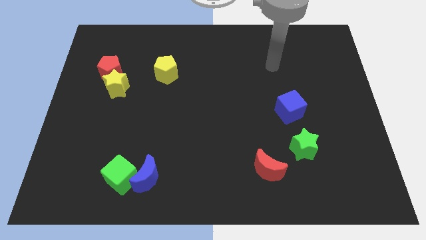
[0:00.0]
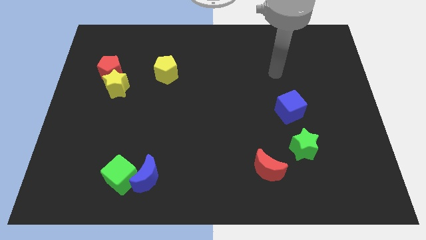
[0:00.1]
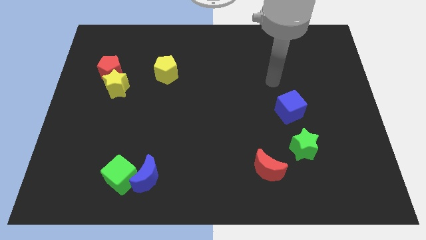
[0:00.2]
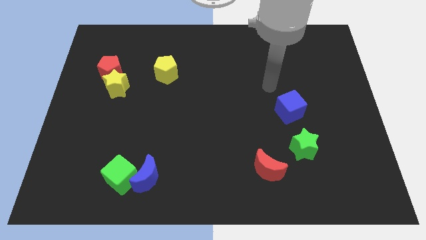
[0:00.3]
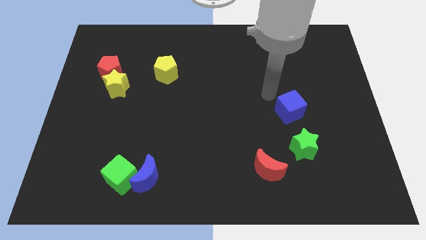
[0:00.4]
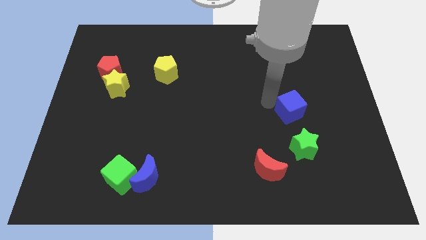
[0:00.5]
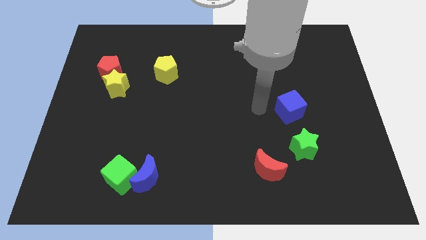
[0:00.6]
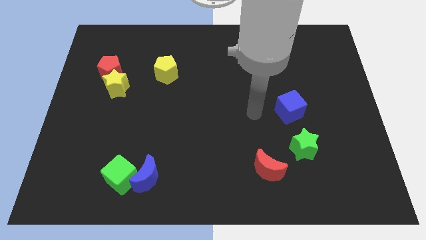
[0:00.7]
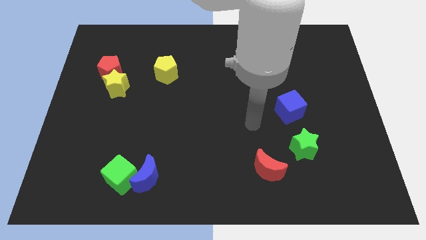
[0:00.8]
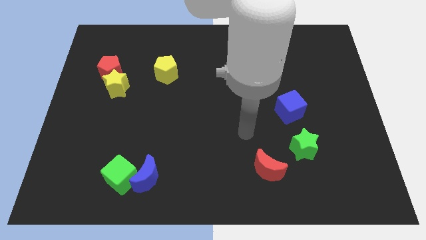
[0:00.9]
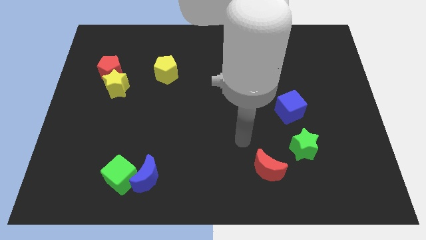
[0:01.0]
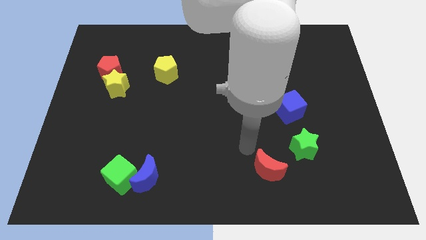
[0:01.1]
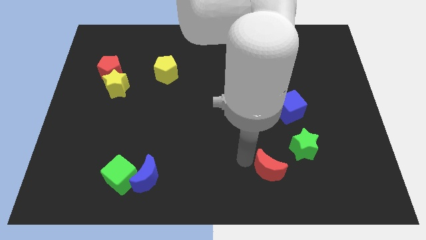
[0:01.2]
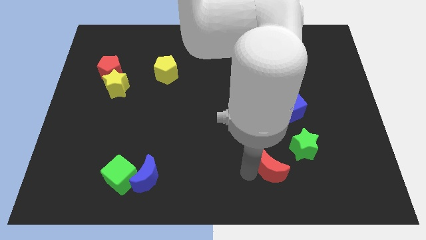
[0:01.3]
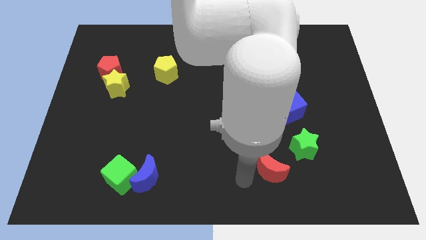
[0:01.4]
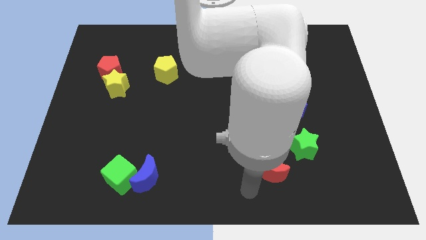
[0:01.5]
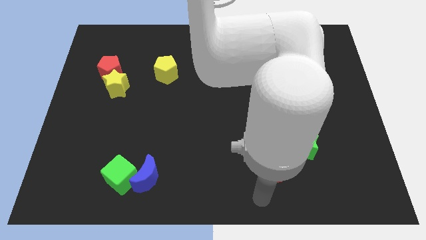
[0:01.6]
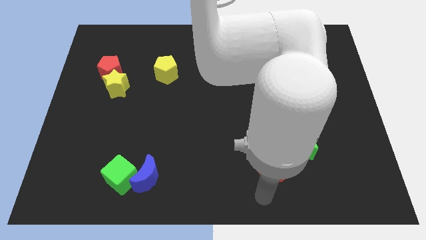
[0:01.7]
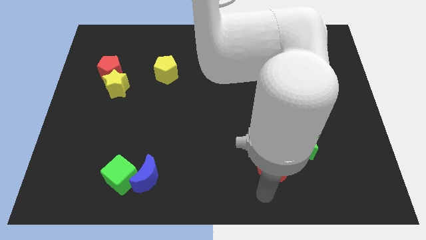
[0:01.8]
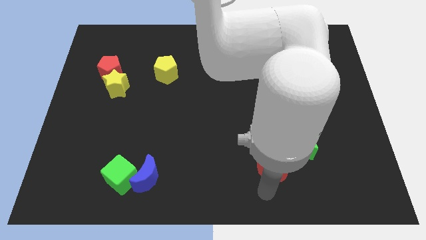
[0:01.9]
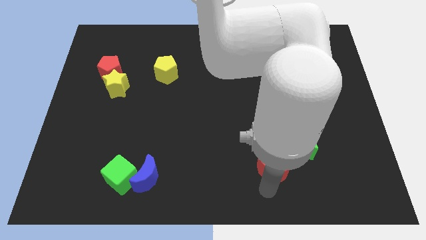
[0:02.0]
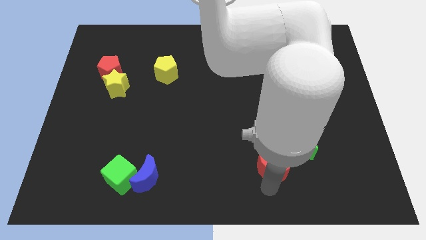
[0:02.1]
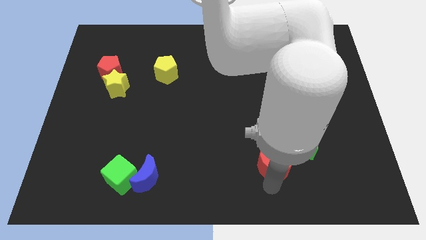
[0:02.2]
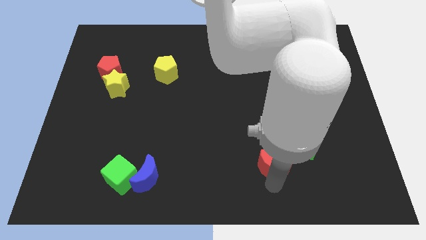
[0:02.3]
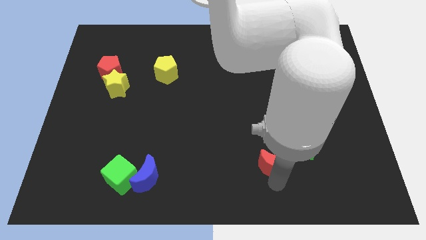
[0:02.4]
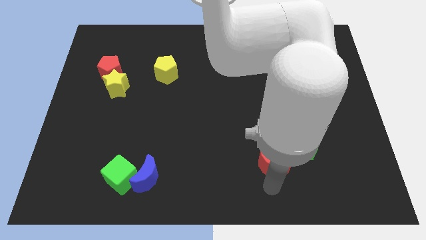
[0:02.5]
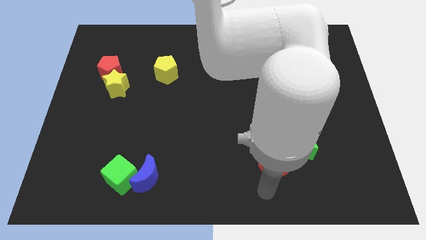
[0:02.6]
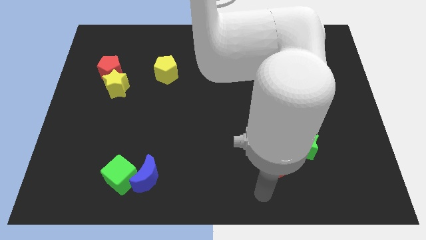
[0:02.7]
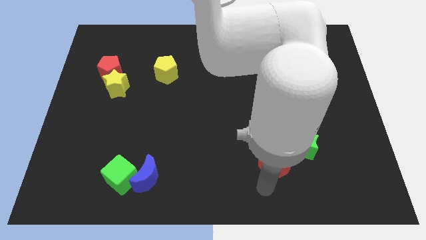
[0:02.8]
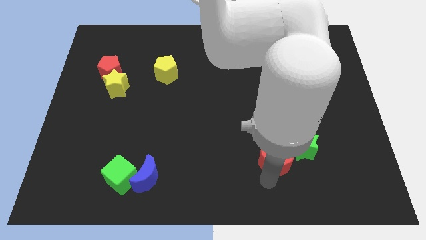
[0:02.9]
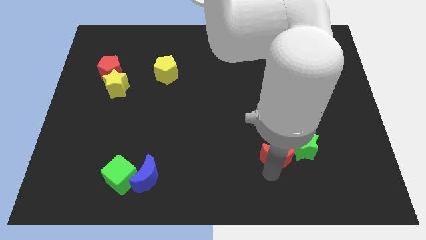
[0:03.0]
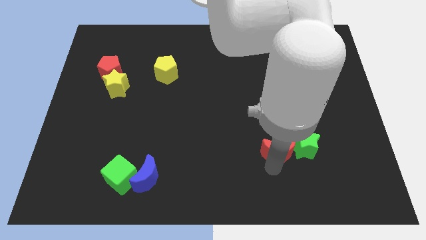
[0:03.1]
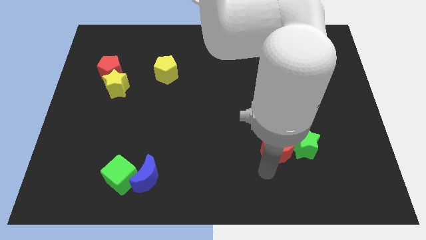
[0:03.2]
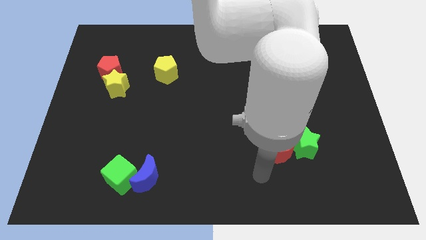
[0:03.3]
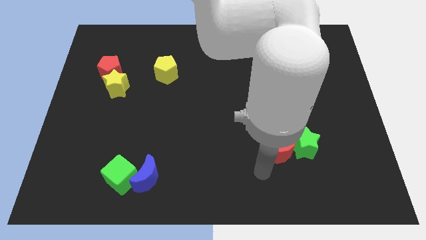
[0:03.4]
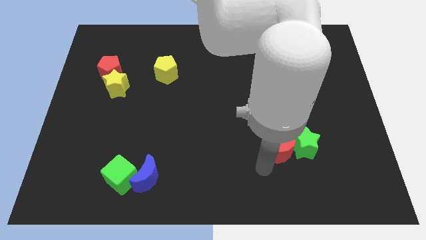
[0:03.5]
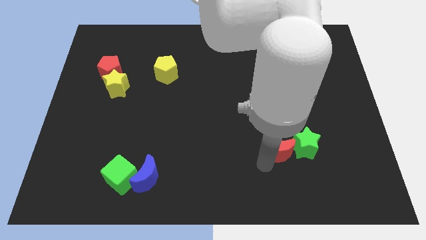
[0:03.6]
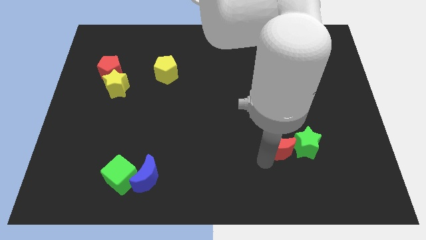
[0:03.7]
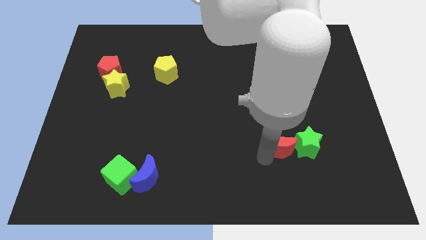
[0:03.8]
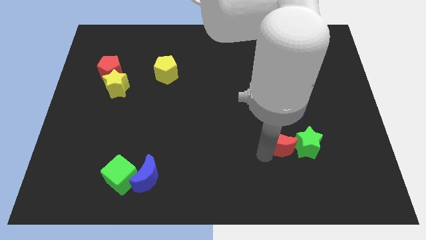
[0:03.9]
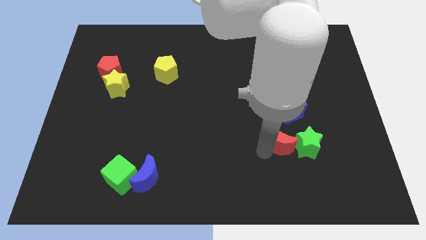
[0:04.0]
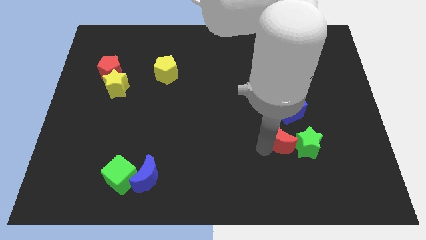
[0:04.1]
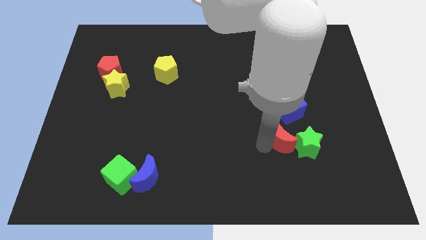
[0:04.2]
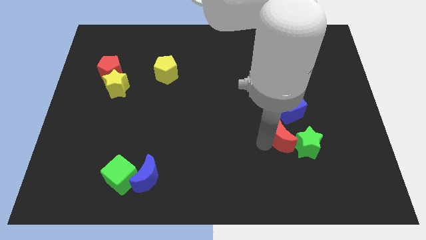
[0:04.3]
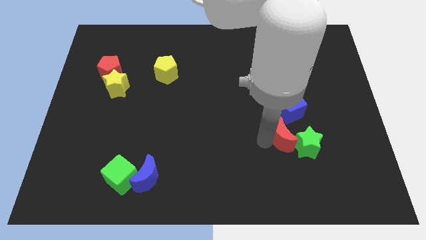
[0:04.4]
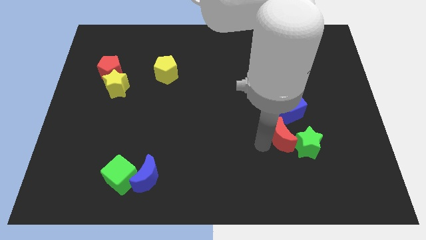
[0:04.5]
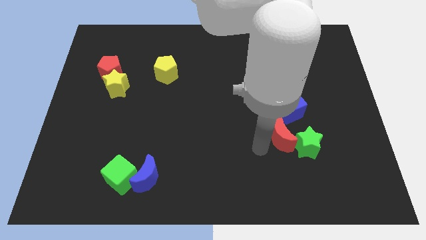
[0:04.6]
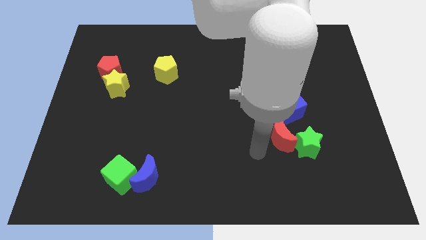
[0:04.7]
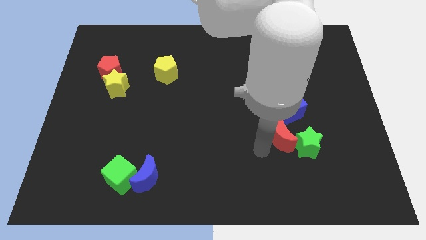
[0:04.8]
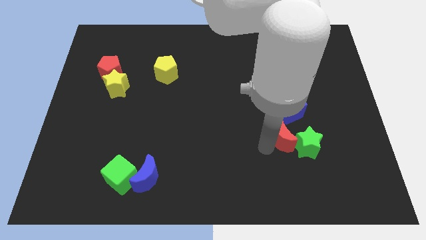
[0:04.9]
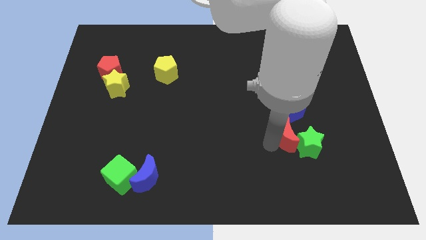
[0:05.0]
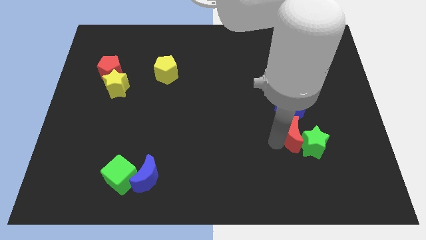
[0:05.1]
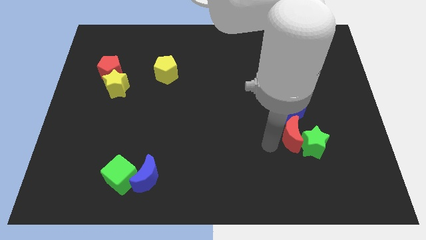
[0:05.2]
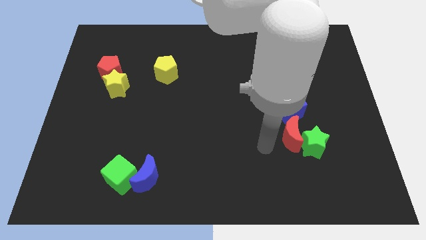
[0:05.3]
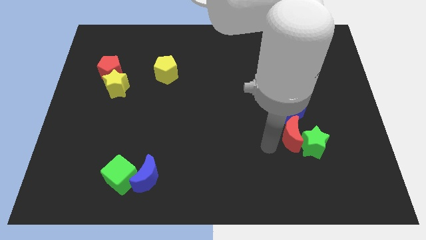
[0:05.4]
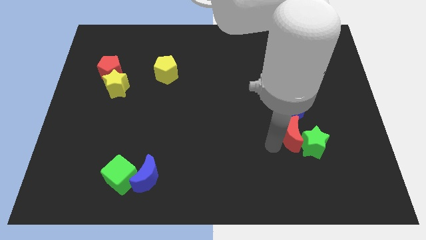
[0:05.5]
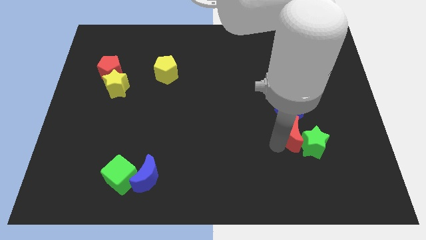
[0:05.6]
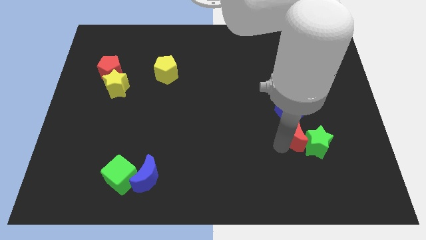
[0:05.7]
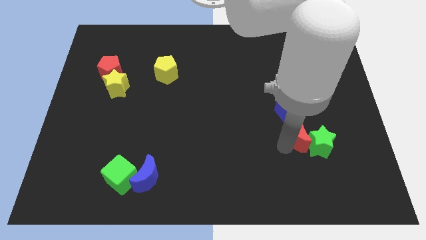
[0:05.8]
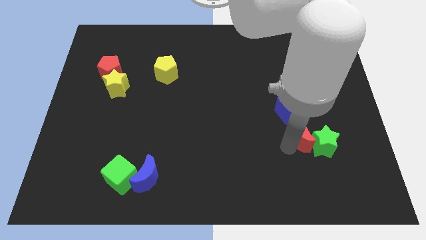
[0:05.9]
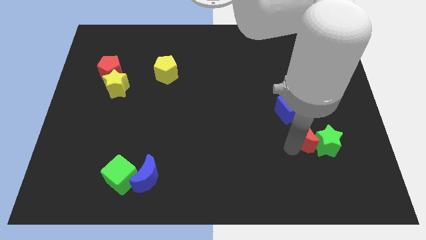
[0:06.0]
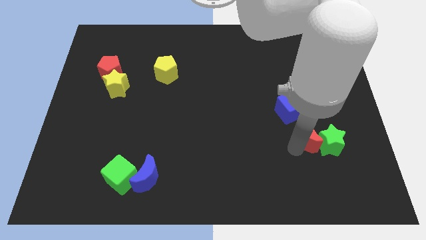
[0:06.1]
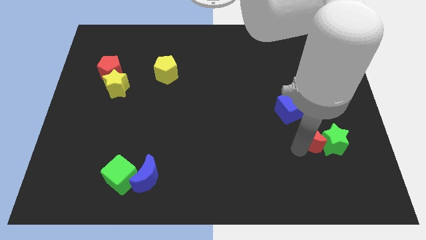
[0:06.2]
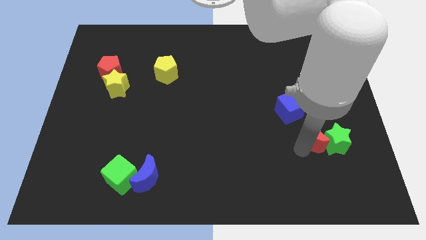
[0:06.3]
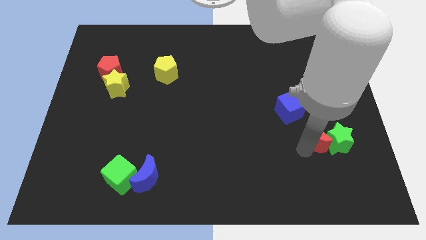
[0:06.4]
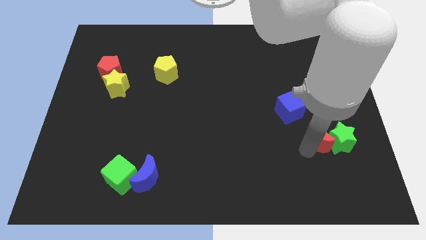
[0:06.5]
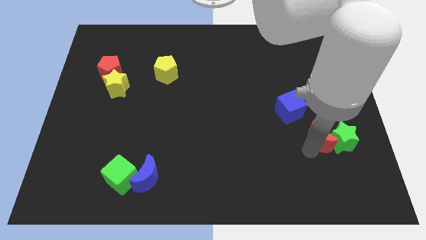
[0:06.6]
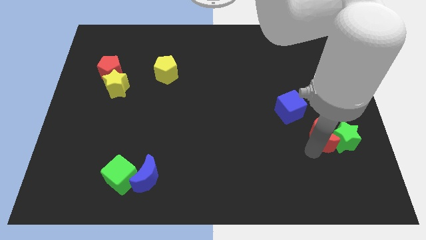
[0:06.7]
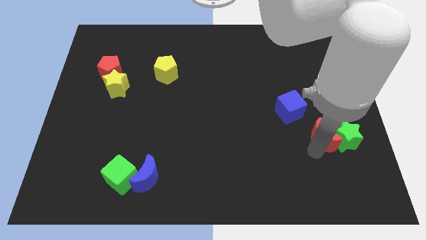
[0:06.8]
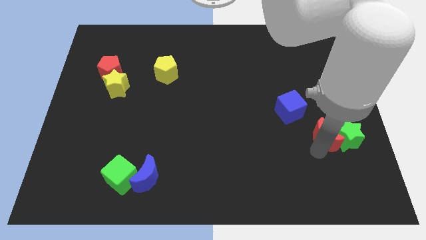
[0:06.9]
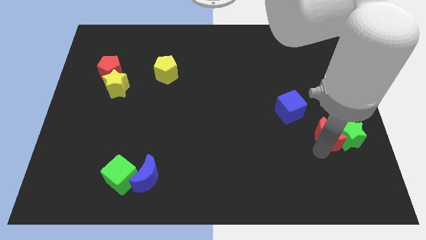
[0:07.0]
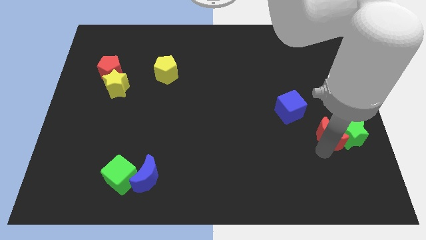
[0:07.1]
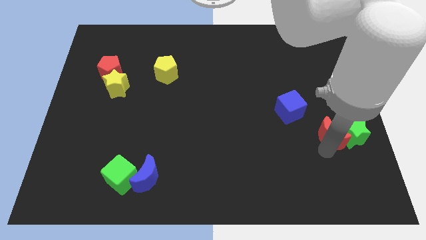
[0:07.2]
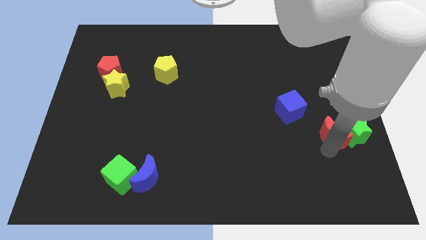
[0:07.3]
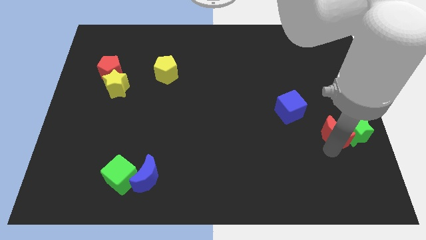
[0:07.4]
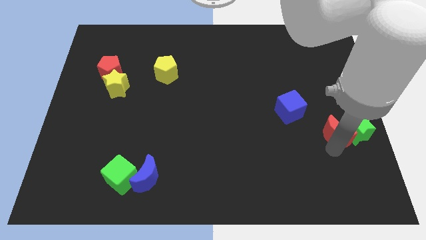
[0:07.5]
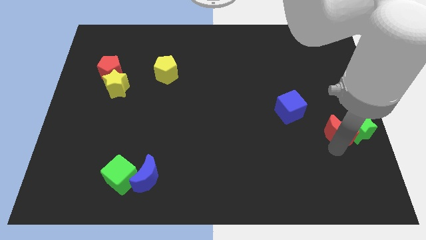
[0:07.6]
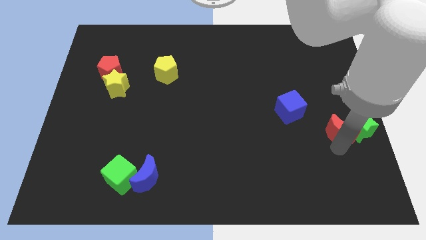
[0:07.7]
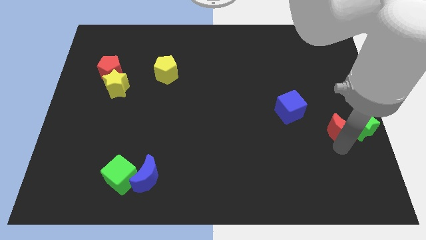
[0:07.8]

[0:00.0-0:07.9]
move the red moon to the right side
